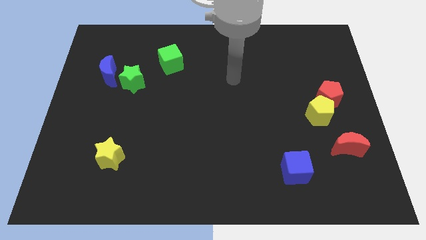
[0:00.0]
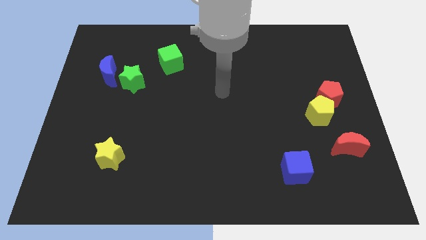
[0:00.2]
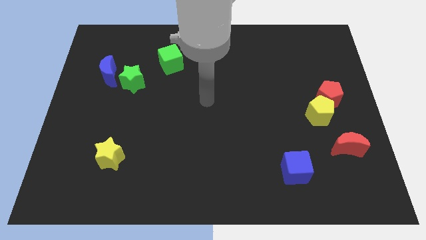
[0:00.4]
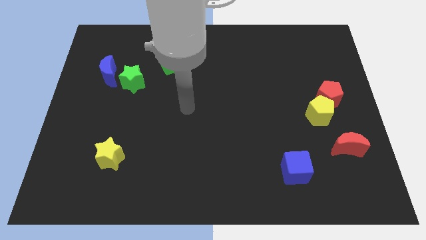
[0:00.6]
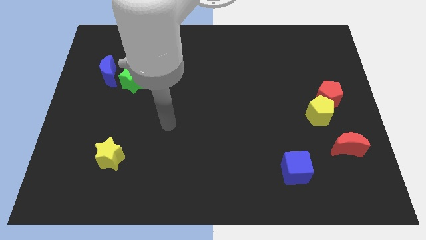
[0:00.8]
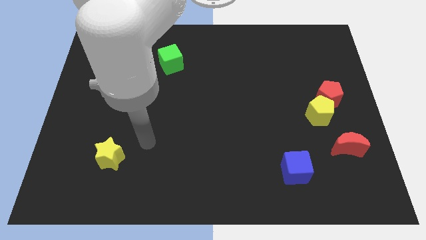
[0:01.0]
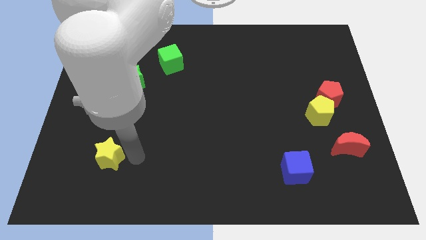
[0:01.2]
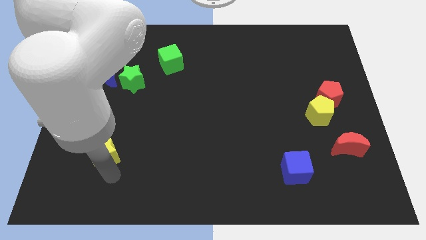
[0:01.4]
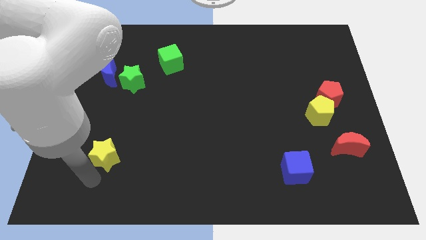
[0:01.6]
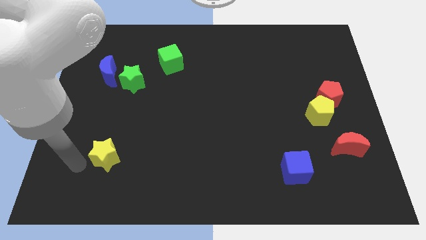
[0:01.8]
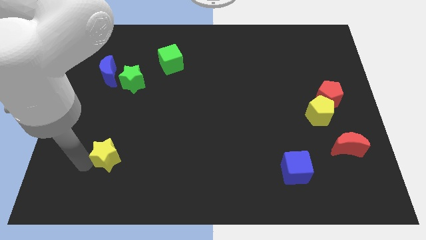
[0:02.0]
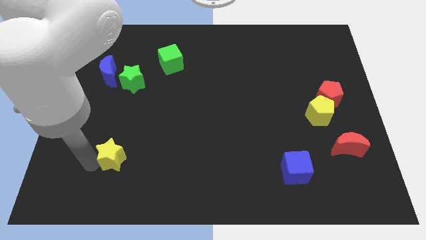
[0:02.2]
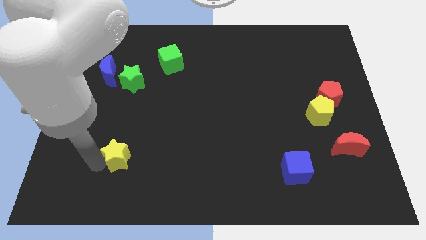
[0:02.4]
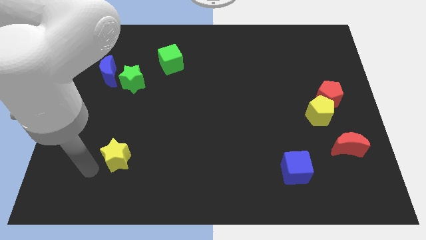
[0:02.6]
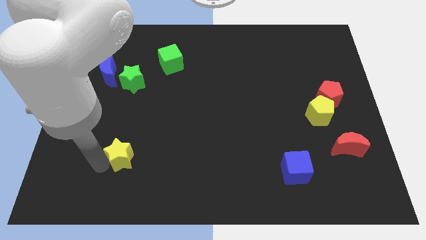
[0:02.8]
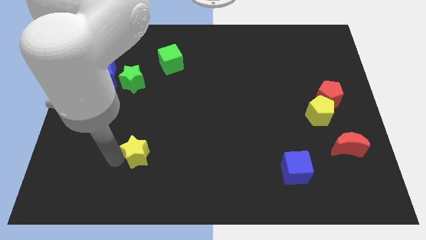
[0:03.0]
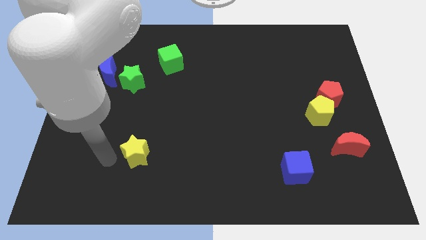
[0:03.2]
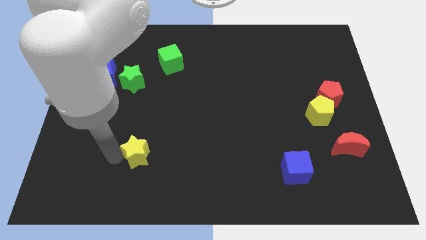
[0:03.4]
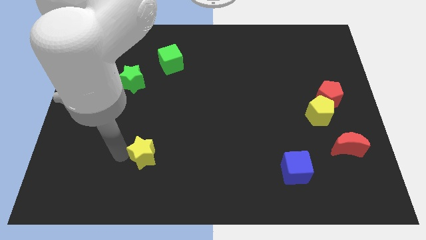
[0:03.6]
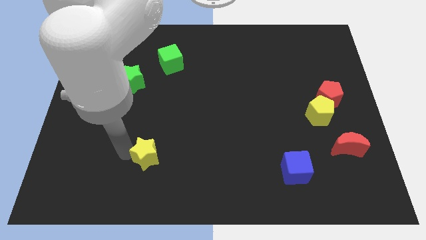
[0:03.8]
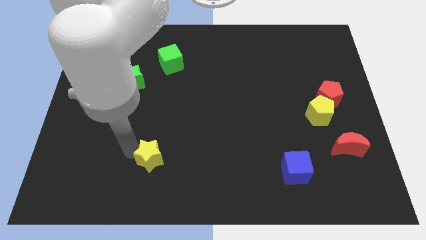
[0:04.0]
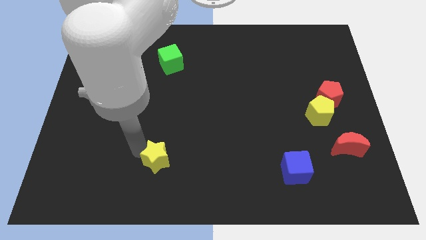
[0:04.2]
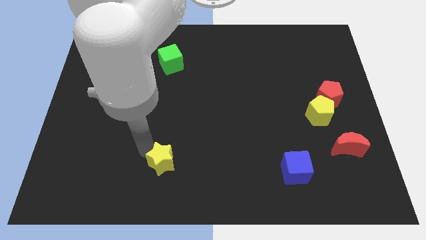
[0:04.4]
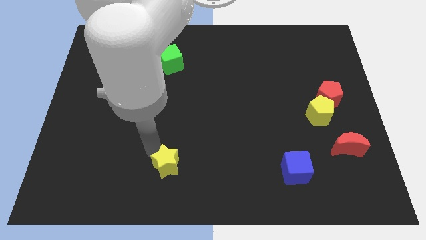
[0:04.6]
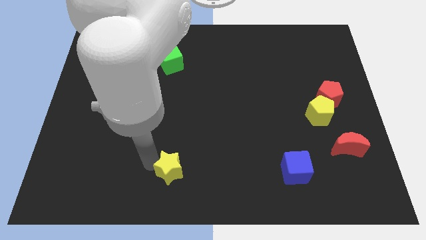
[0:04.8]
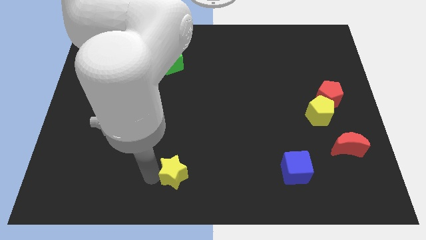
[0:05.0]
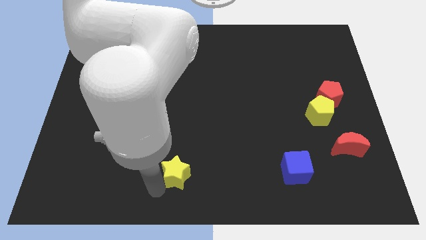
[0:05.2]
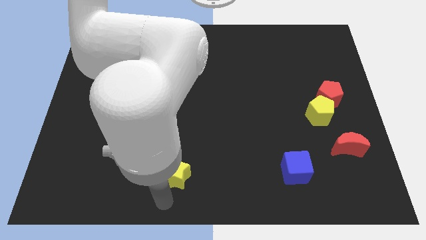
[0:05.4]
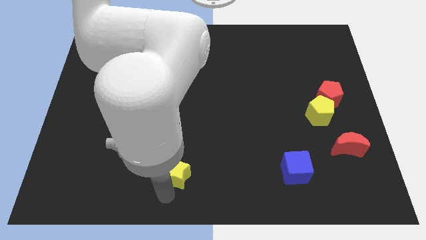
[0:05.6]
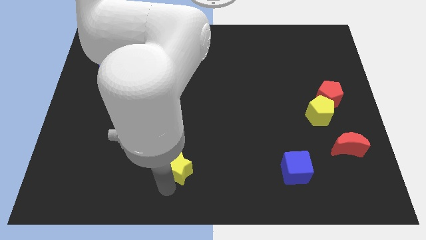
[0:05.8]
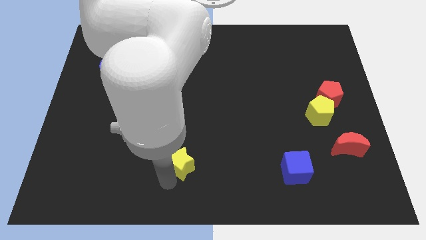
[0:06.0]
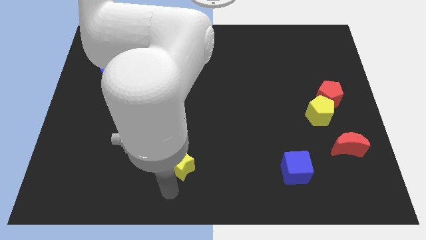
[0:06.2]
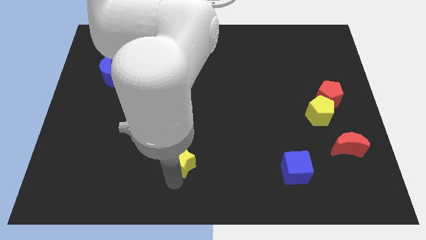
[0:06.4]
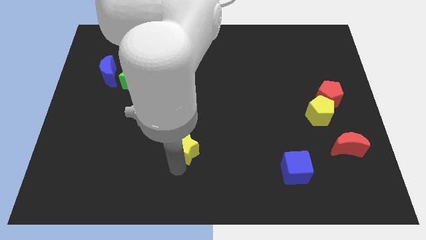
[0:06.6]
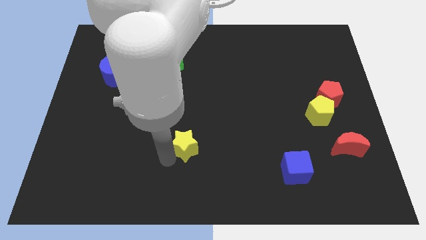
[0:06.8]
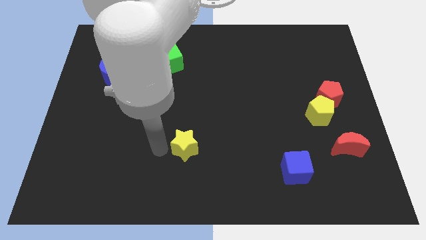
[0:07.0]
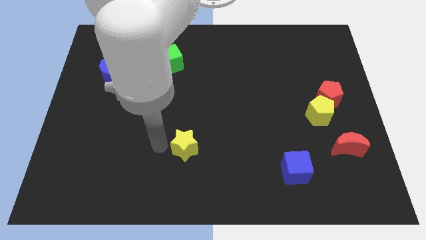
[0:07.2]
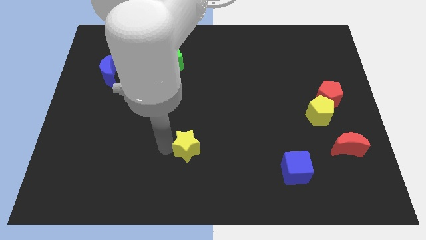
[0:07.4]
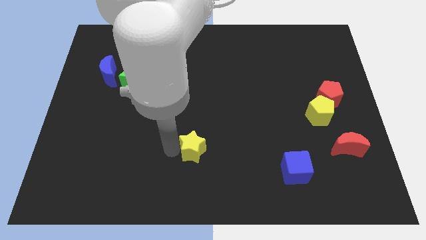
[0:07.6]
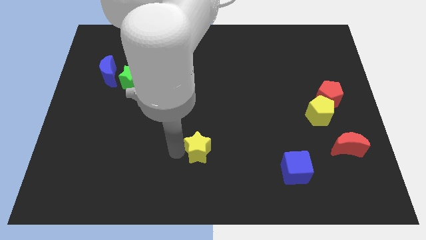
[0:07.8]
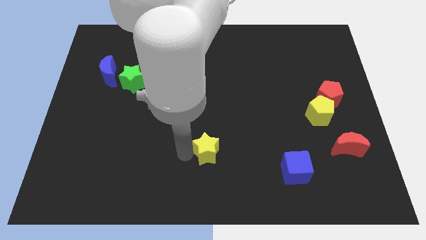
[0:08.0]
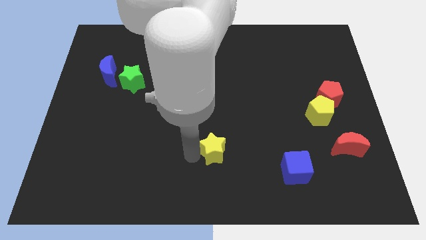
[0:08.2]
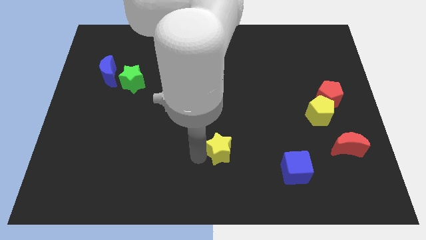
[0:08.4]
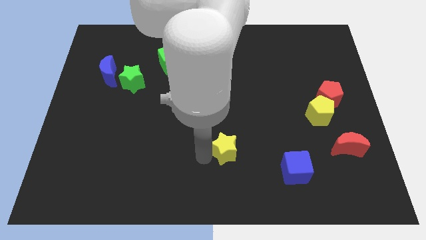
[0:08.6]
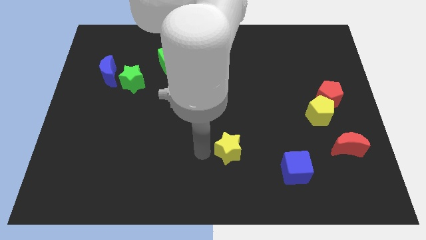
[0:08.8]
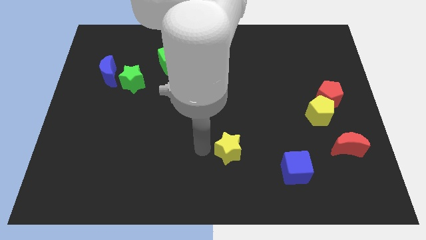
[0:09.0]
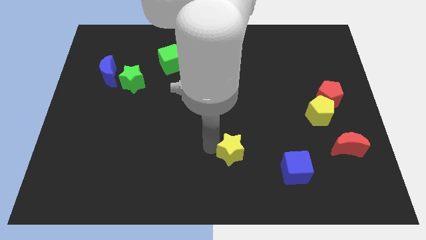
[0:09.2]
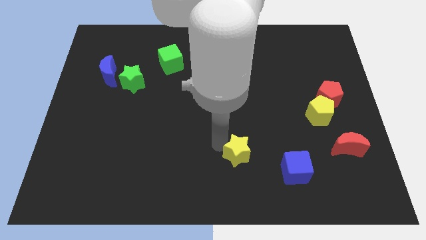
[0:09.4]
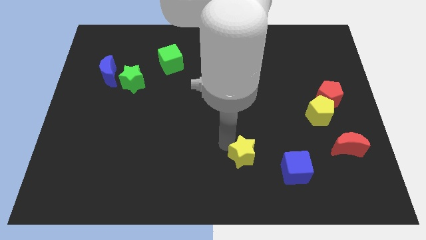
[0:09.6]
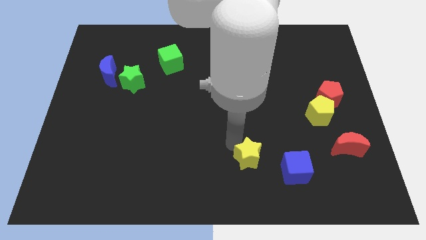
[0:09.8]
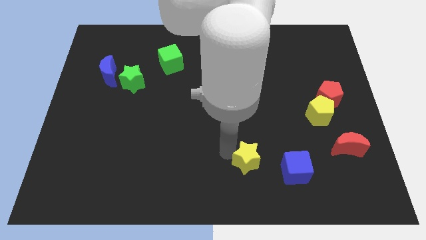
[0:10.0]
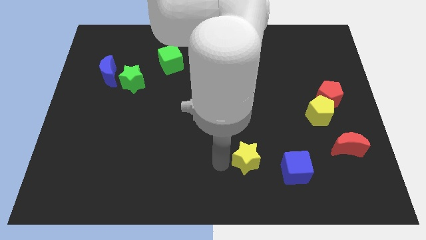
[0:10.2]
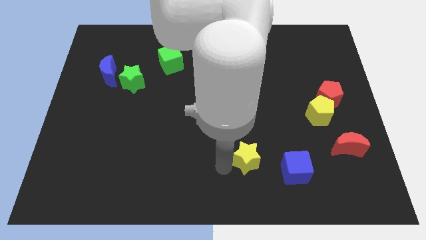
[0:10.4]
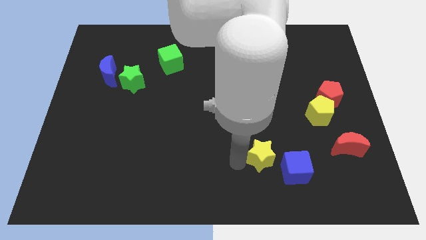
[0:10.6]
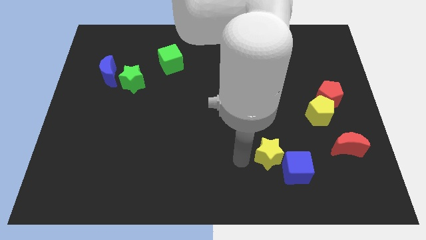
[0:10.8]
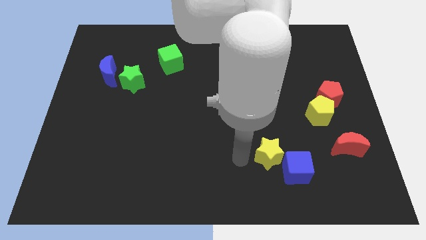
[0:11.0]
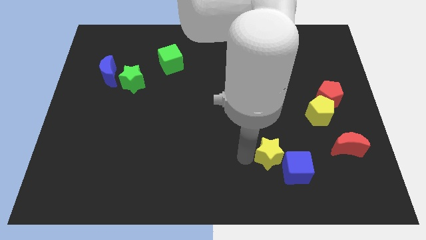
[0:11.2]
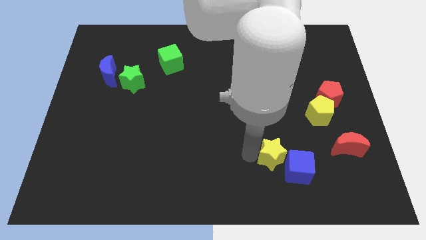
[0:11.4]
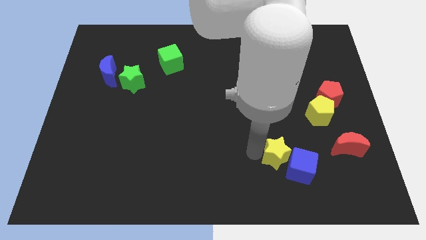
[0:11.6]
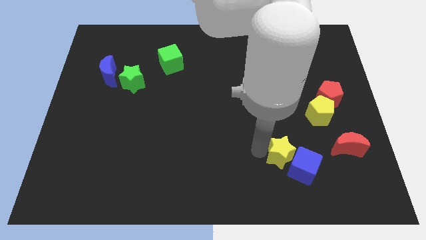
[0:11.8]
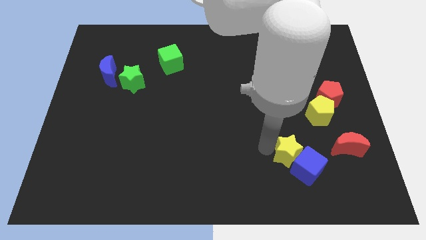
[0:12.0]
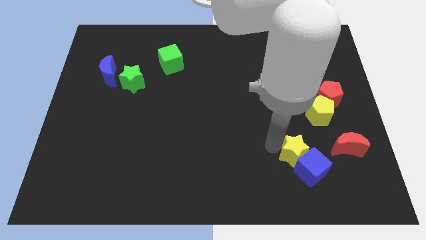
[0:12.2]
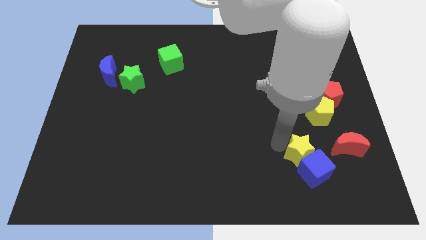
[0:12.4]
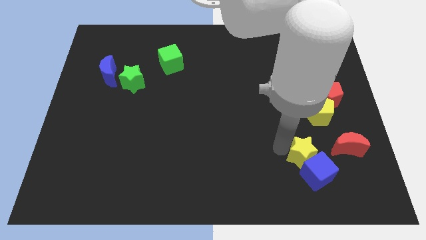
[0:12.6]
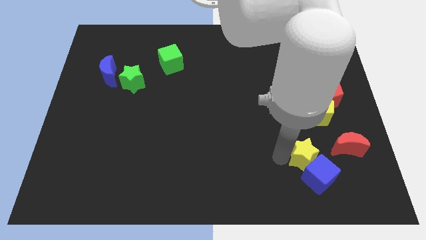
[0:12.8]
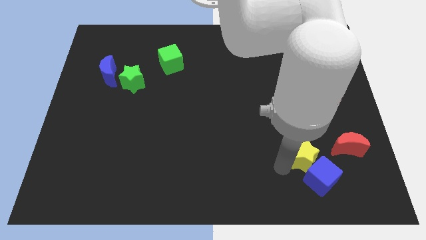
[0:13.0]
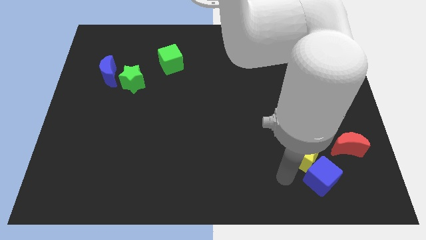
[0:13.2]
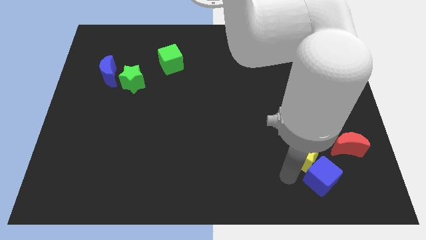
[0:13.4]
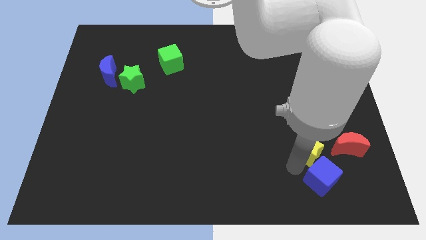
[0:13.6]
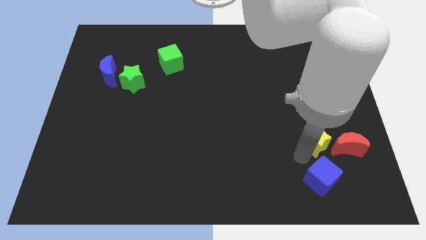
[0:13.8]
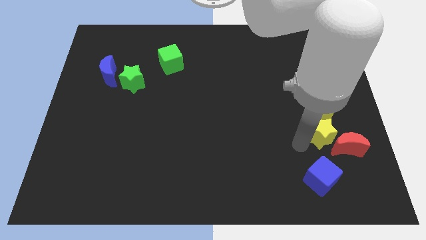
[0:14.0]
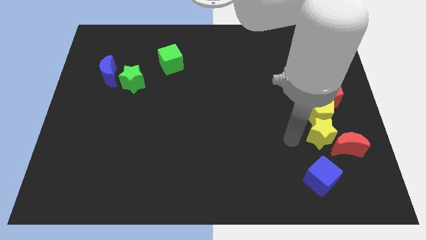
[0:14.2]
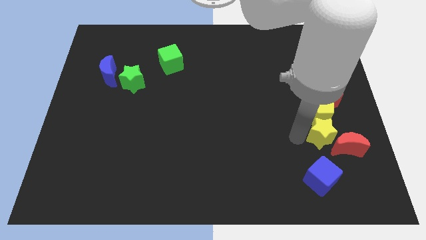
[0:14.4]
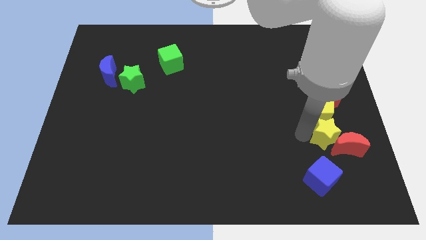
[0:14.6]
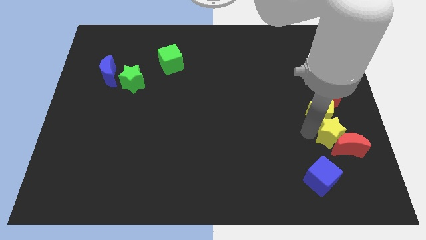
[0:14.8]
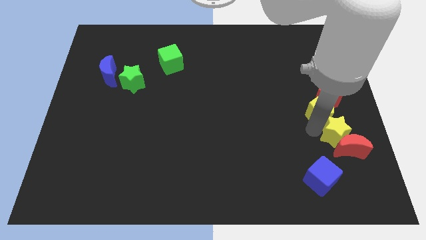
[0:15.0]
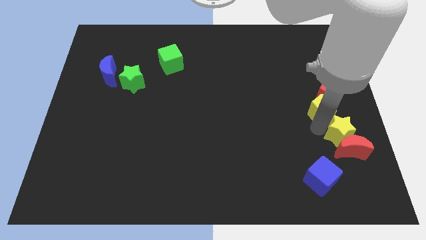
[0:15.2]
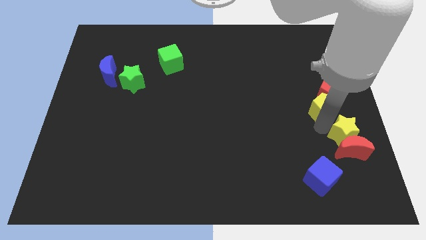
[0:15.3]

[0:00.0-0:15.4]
slide the yellow star to the right side
